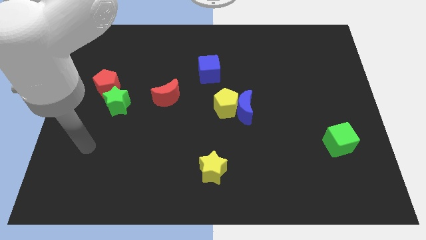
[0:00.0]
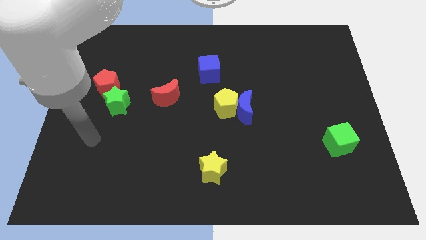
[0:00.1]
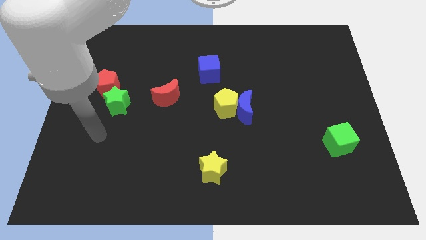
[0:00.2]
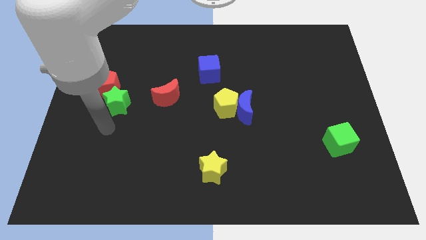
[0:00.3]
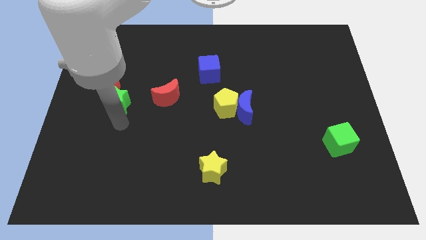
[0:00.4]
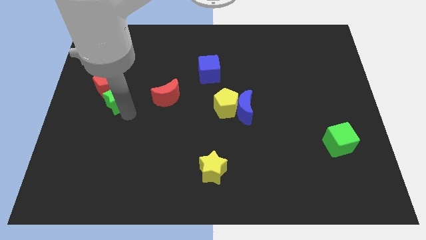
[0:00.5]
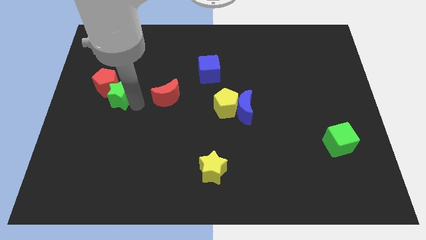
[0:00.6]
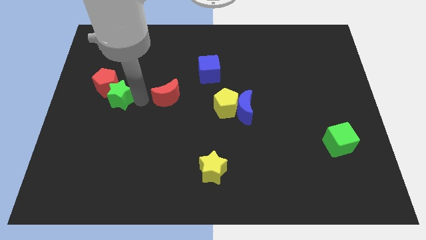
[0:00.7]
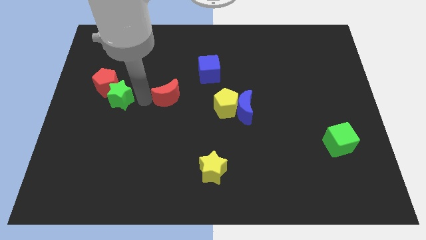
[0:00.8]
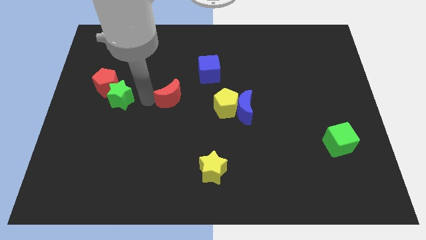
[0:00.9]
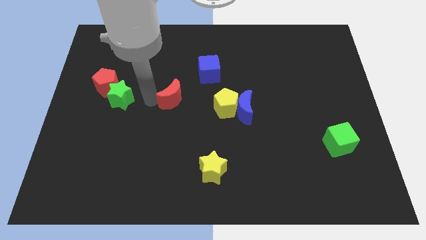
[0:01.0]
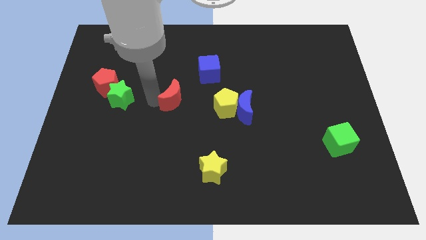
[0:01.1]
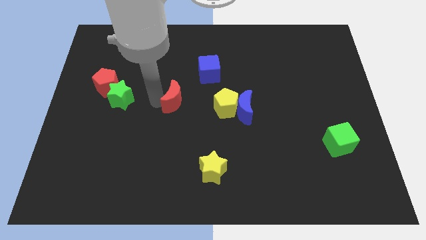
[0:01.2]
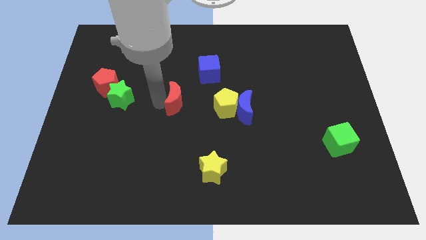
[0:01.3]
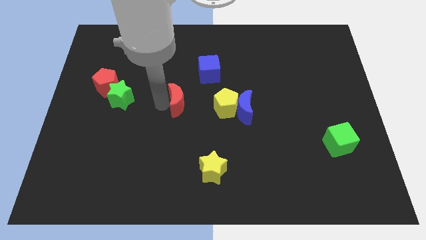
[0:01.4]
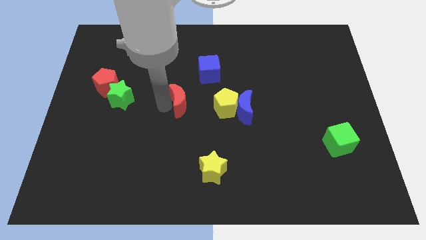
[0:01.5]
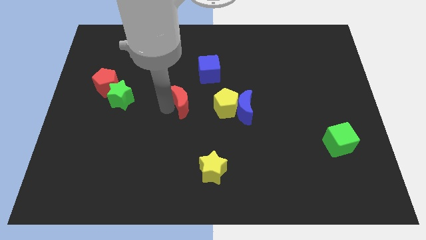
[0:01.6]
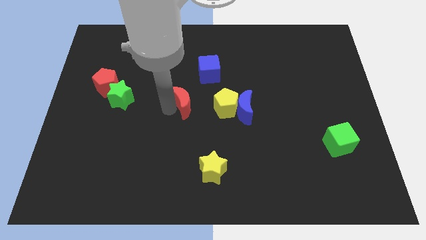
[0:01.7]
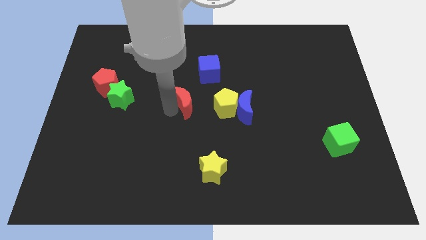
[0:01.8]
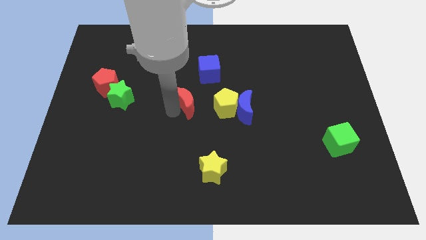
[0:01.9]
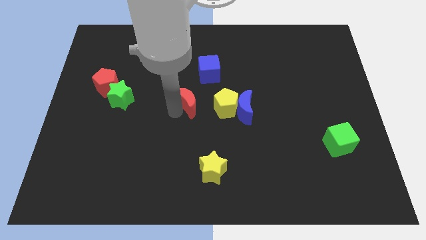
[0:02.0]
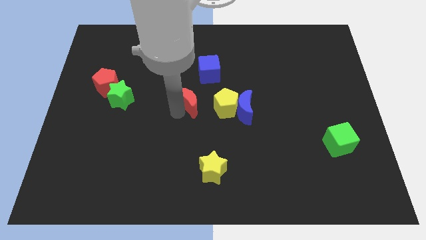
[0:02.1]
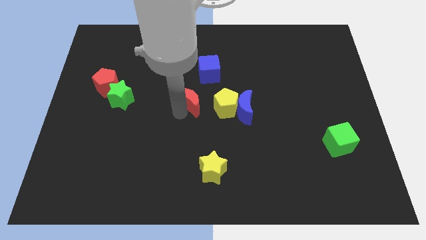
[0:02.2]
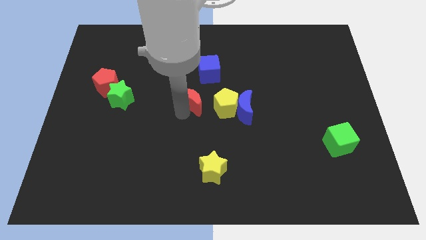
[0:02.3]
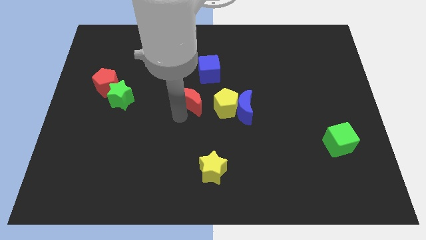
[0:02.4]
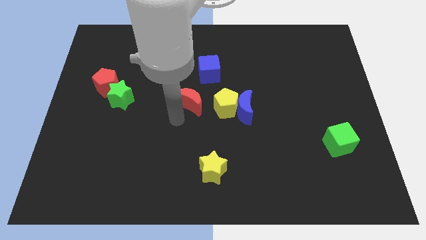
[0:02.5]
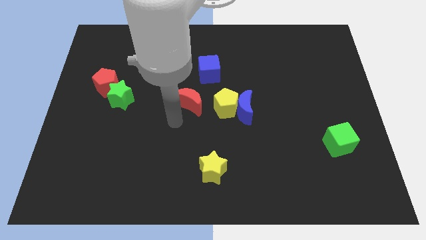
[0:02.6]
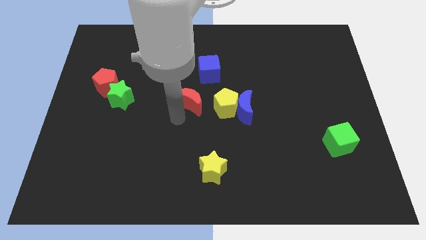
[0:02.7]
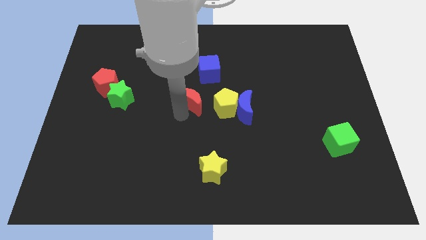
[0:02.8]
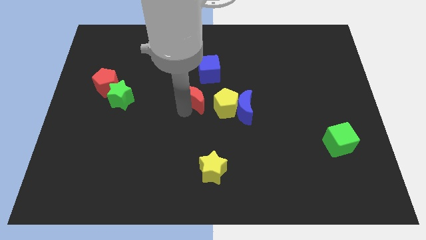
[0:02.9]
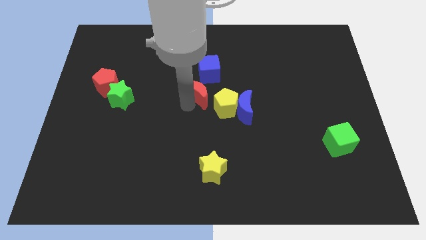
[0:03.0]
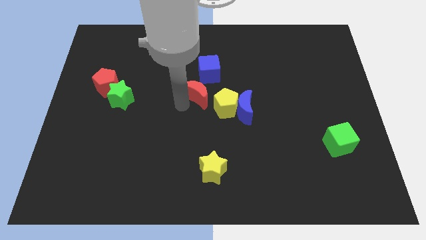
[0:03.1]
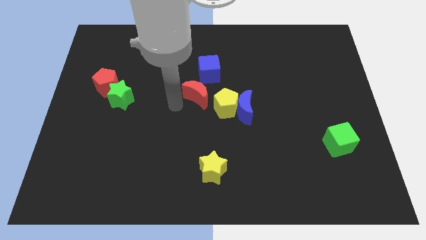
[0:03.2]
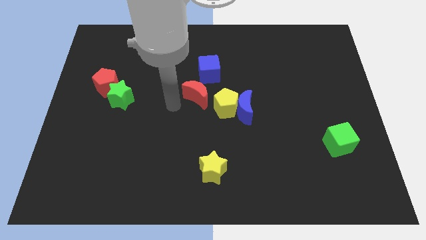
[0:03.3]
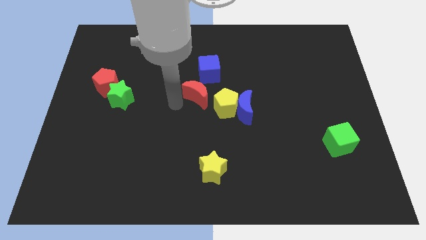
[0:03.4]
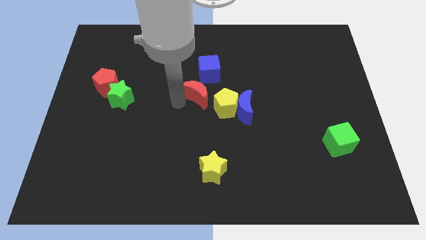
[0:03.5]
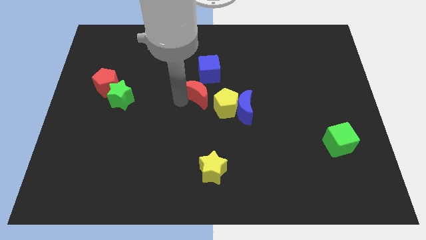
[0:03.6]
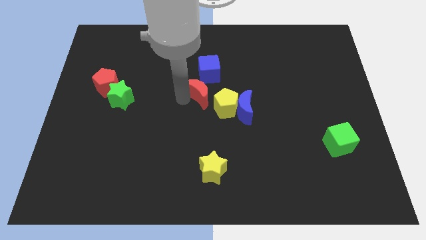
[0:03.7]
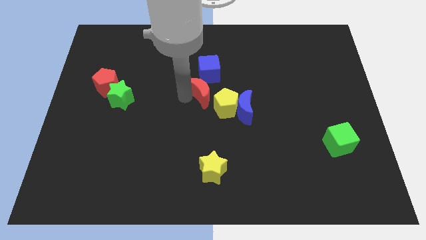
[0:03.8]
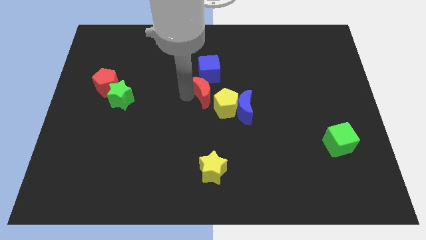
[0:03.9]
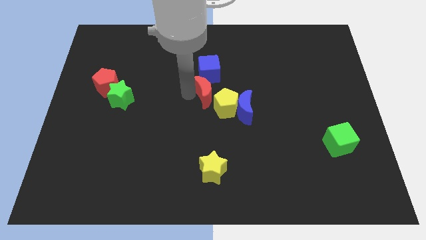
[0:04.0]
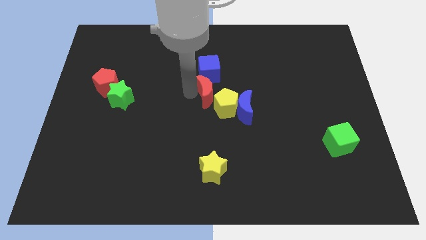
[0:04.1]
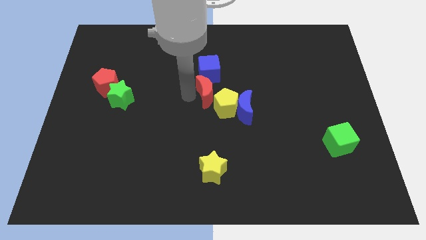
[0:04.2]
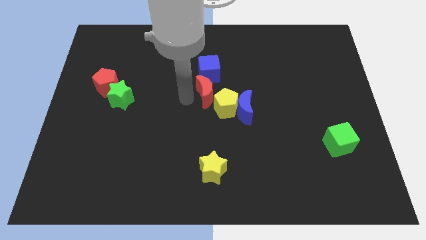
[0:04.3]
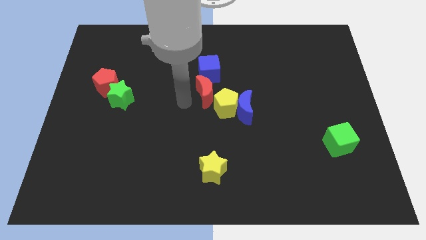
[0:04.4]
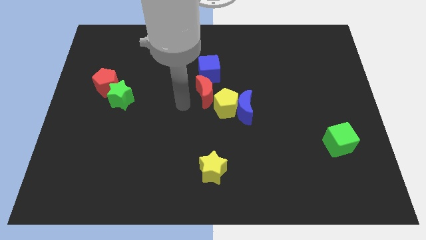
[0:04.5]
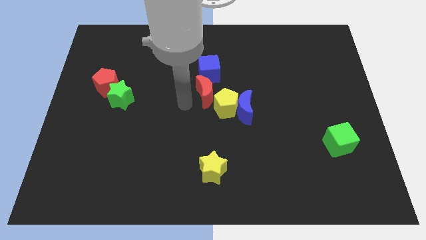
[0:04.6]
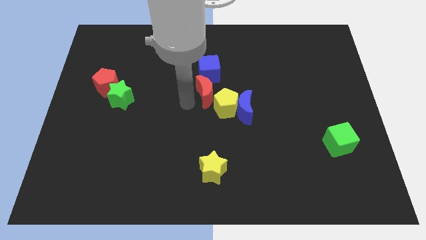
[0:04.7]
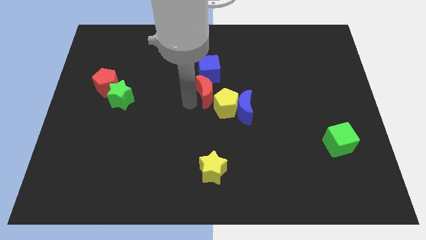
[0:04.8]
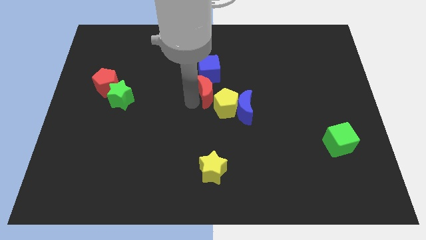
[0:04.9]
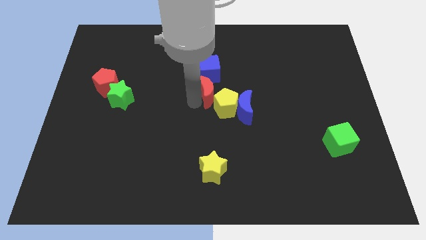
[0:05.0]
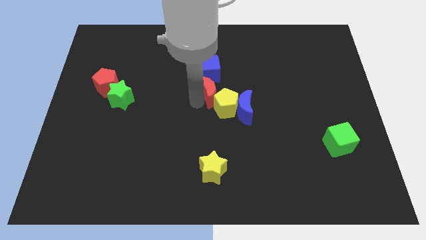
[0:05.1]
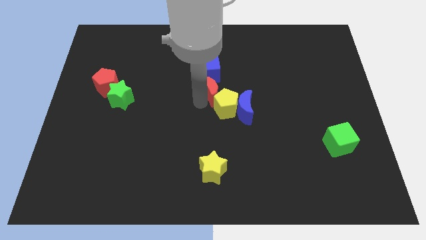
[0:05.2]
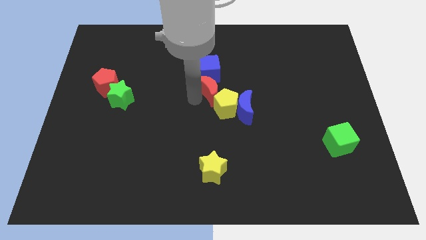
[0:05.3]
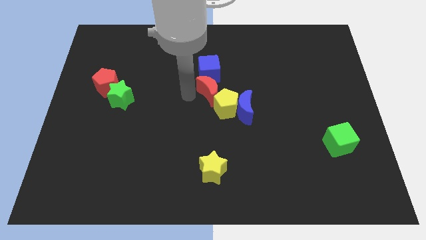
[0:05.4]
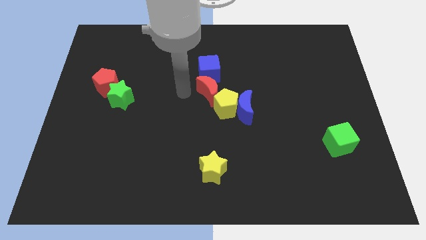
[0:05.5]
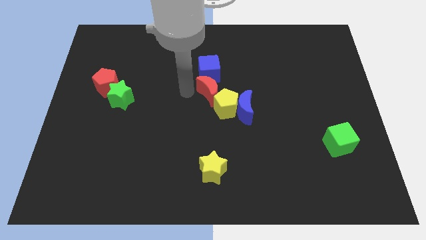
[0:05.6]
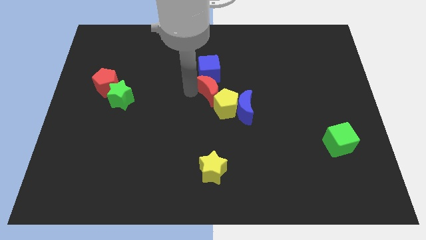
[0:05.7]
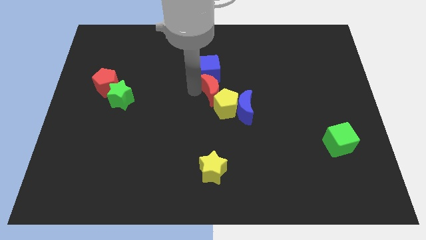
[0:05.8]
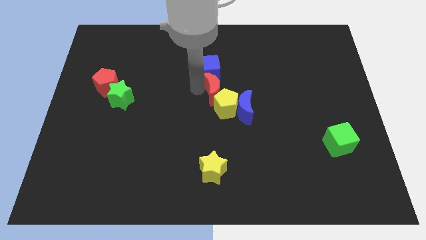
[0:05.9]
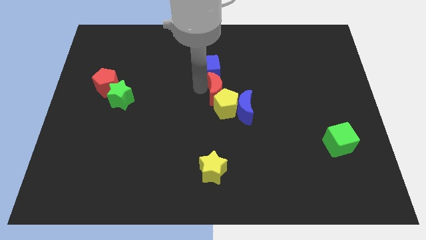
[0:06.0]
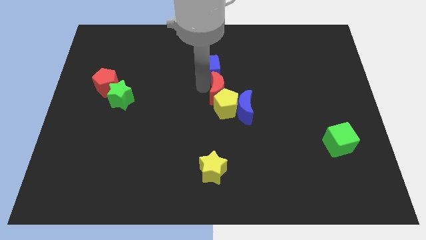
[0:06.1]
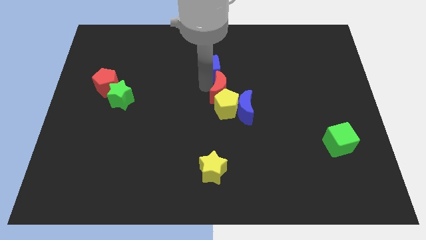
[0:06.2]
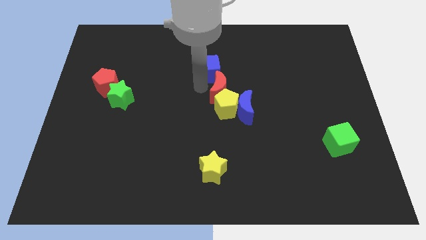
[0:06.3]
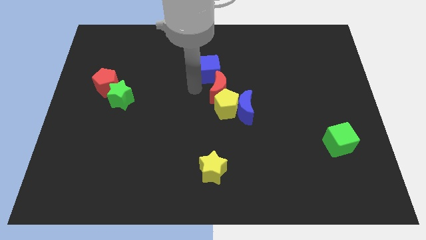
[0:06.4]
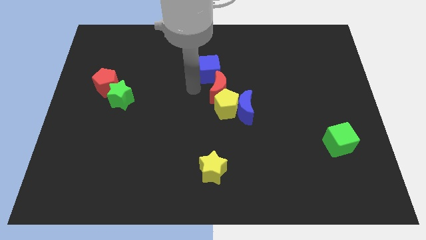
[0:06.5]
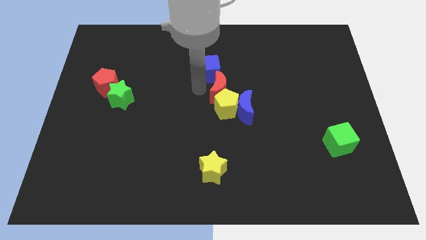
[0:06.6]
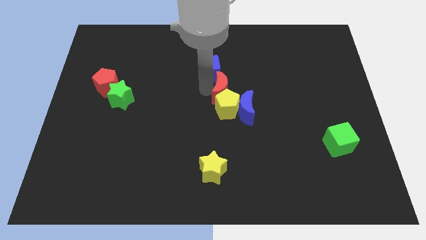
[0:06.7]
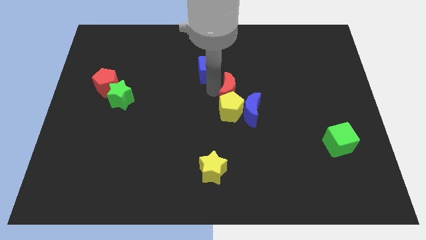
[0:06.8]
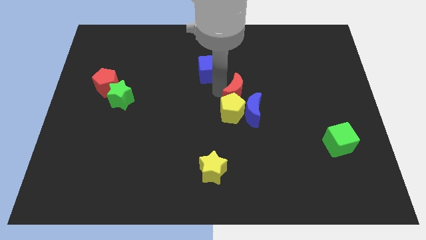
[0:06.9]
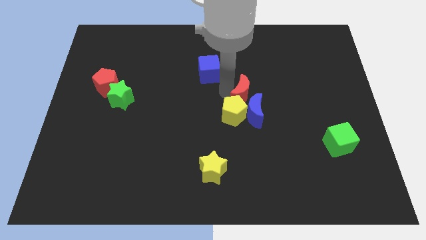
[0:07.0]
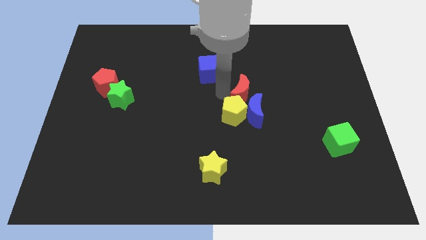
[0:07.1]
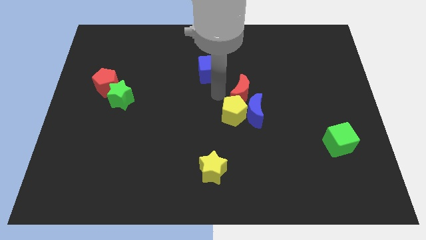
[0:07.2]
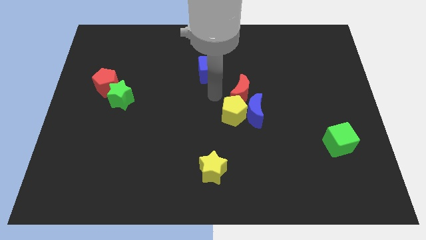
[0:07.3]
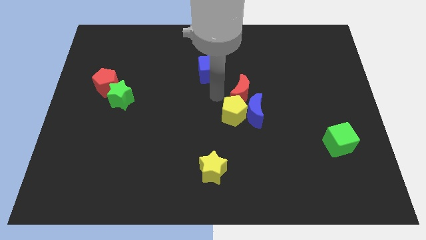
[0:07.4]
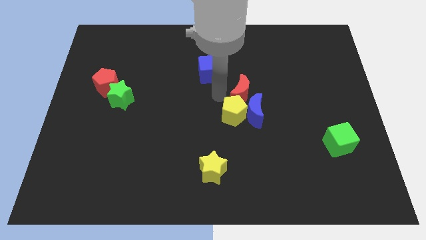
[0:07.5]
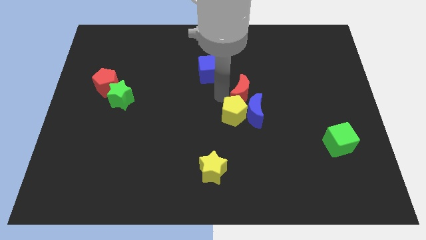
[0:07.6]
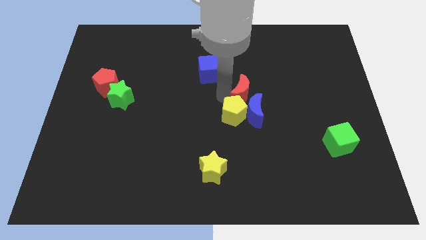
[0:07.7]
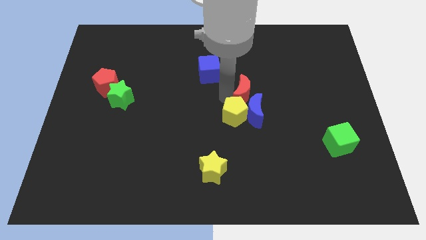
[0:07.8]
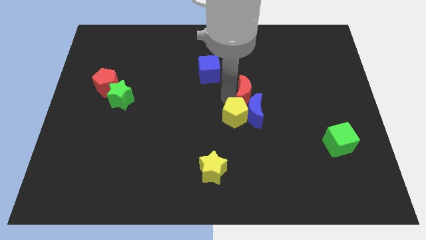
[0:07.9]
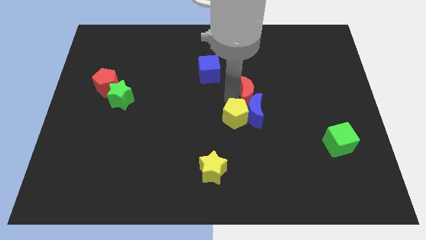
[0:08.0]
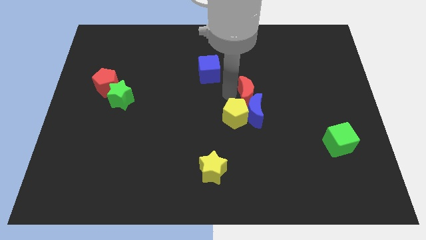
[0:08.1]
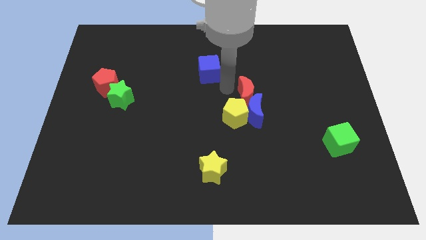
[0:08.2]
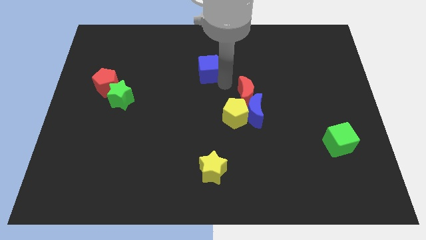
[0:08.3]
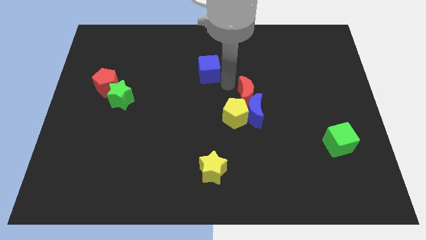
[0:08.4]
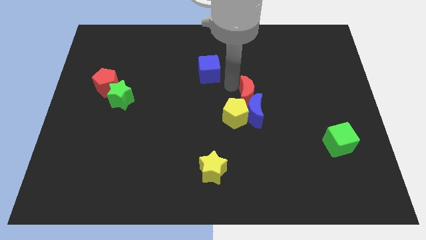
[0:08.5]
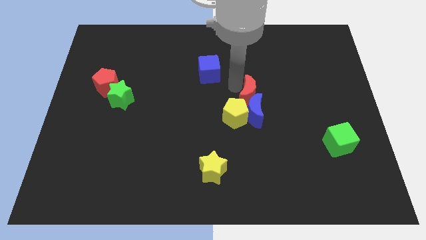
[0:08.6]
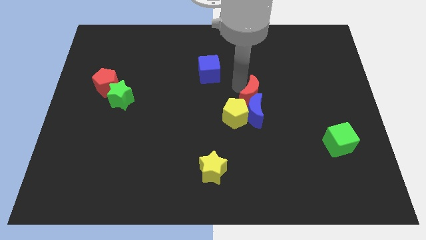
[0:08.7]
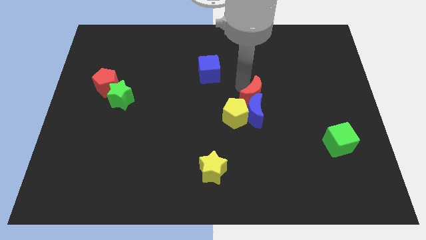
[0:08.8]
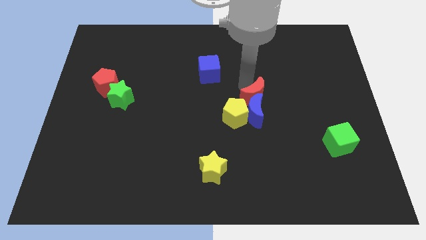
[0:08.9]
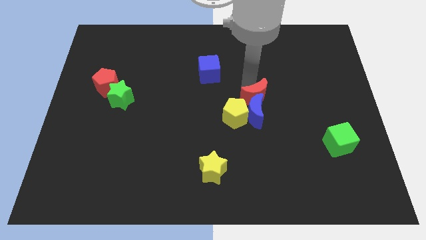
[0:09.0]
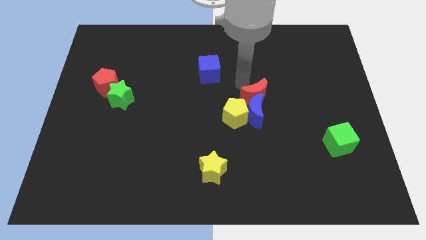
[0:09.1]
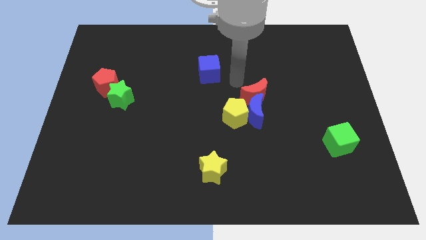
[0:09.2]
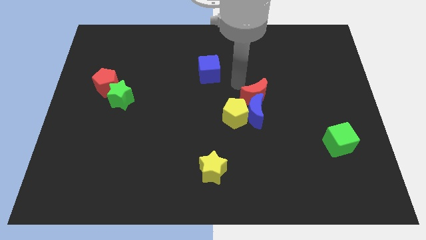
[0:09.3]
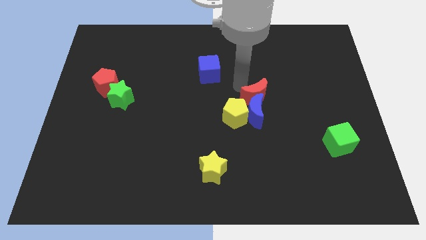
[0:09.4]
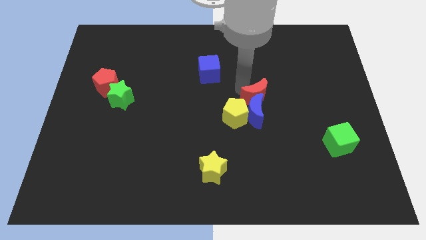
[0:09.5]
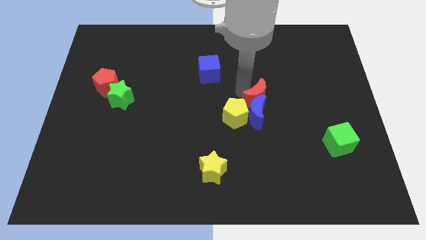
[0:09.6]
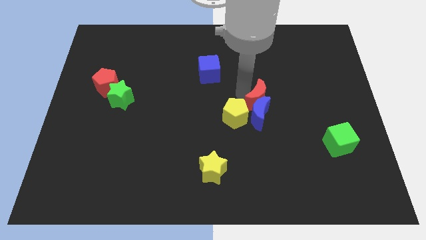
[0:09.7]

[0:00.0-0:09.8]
move the red moon to the right of the yellow pentagon
